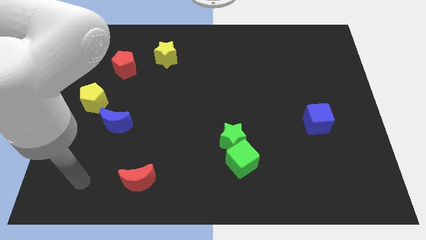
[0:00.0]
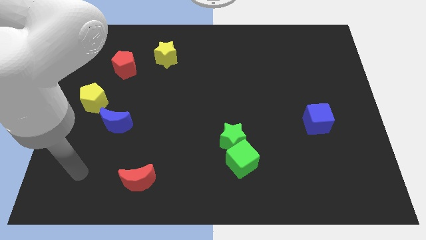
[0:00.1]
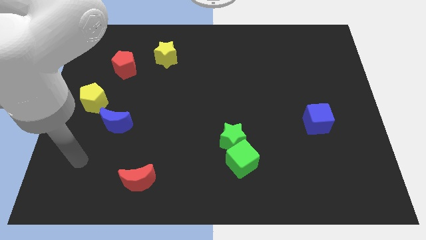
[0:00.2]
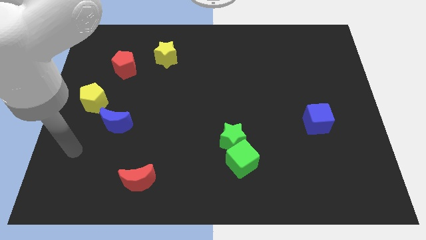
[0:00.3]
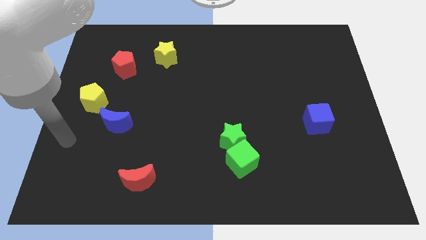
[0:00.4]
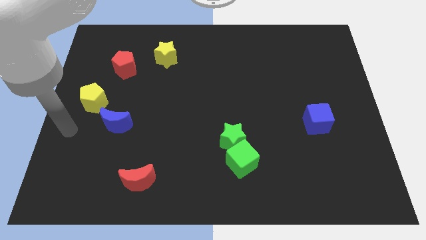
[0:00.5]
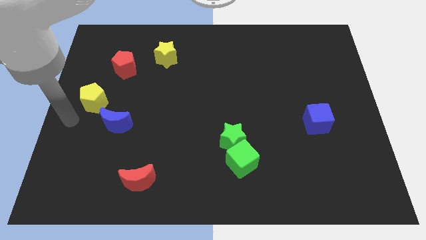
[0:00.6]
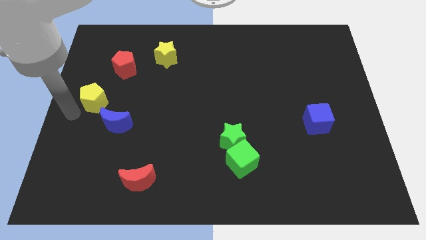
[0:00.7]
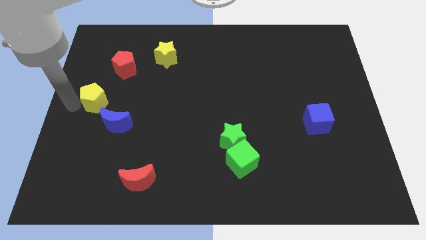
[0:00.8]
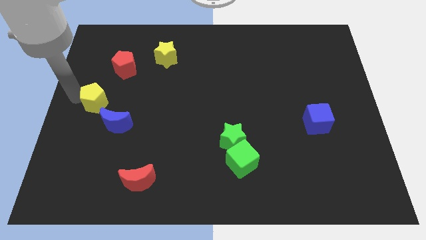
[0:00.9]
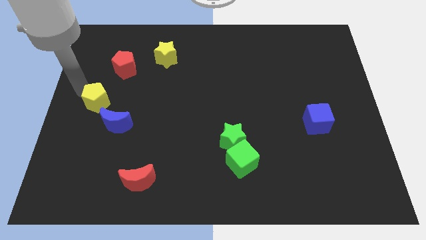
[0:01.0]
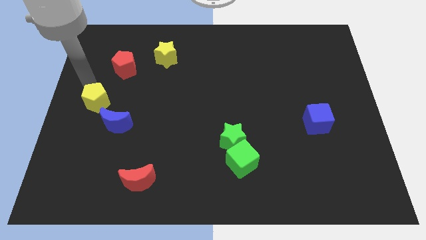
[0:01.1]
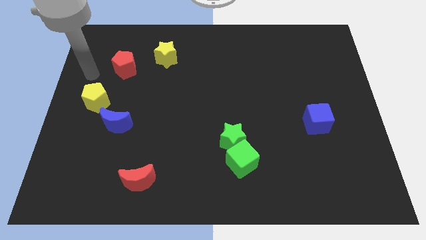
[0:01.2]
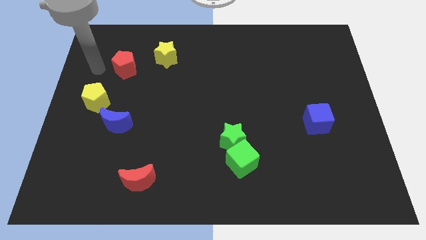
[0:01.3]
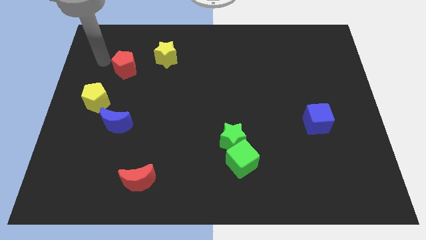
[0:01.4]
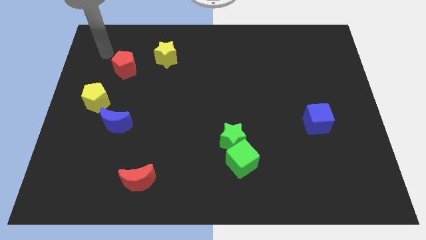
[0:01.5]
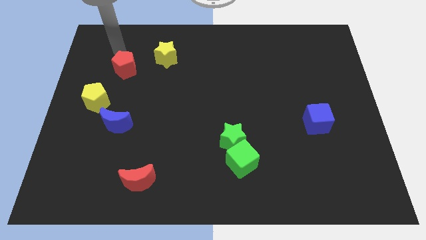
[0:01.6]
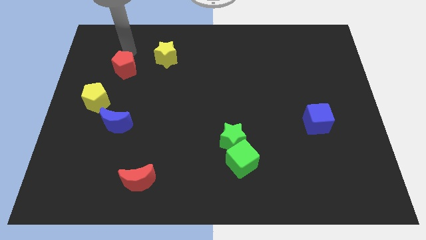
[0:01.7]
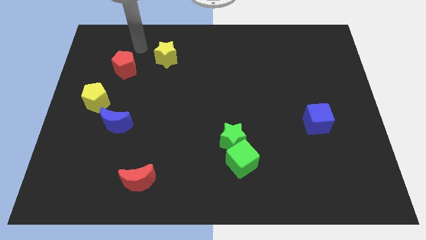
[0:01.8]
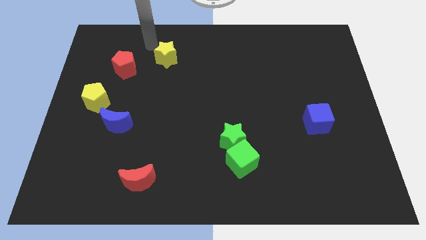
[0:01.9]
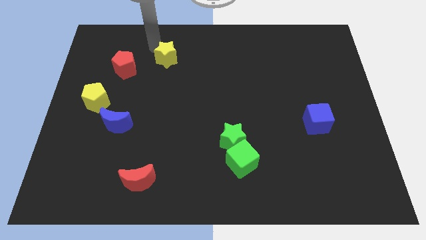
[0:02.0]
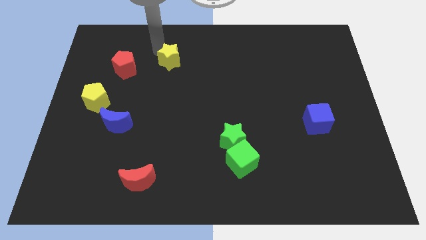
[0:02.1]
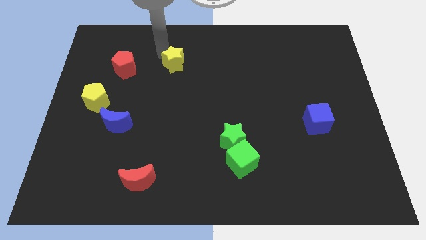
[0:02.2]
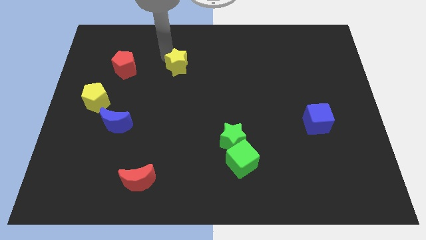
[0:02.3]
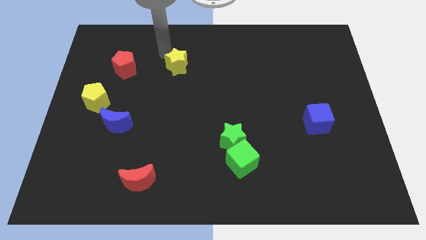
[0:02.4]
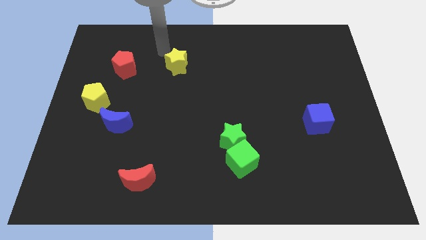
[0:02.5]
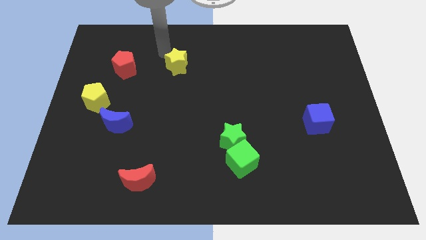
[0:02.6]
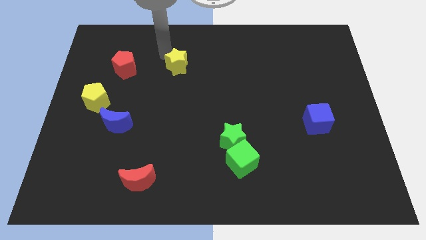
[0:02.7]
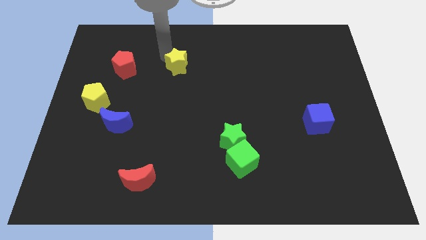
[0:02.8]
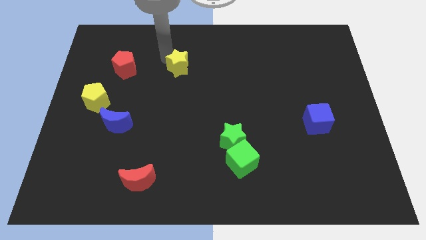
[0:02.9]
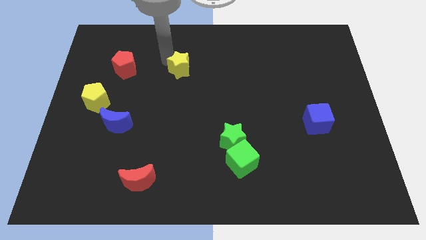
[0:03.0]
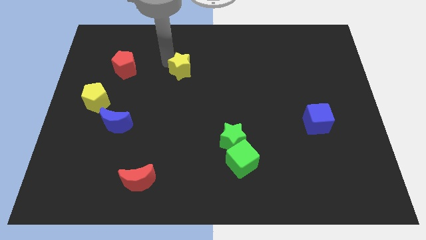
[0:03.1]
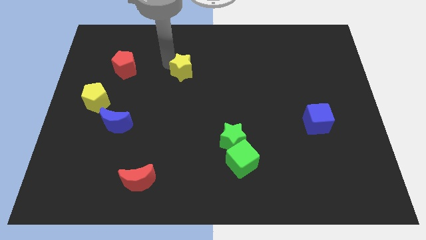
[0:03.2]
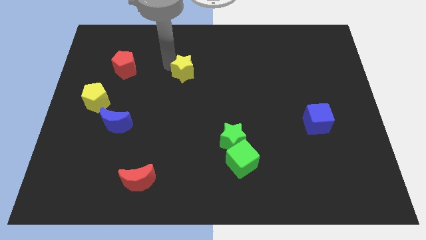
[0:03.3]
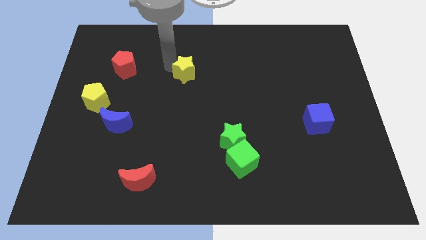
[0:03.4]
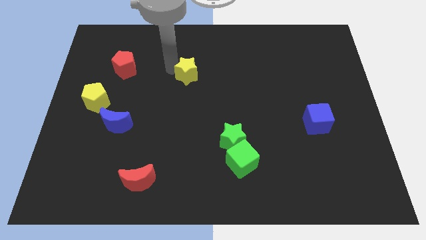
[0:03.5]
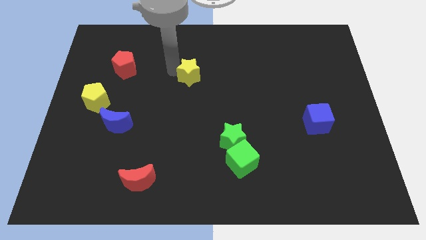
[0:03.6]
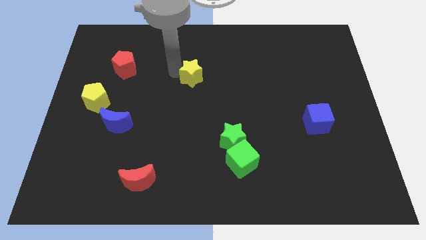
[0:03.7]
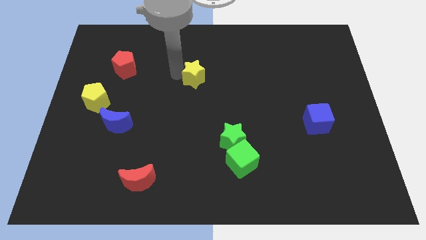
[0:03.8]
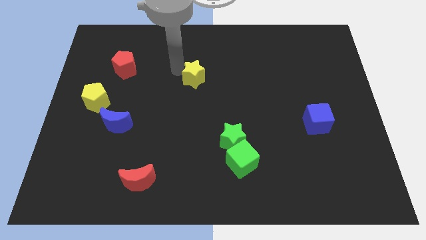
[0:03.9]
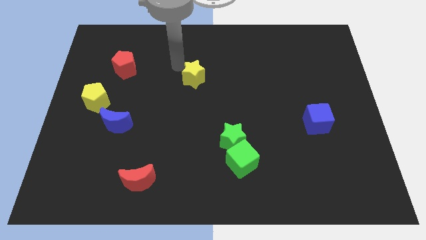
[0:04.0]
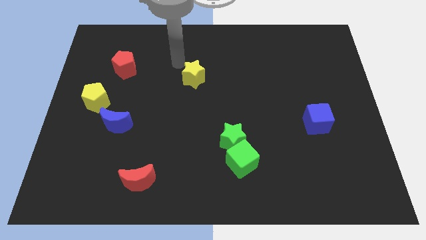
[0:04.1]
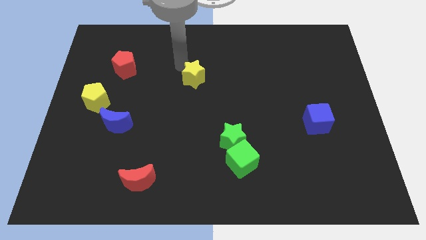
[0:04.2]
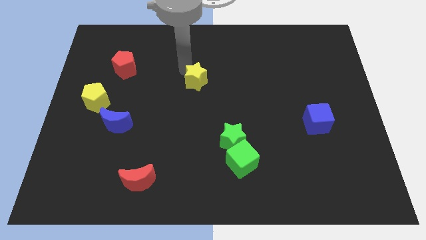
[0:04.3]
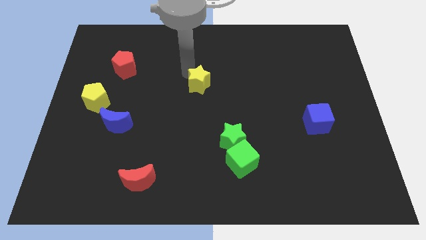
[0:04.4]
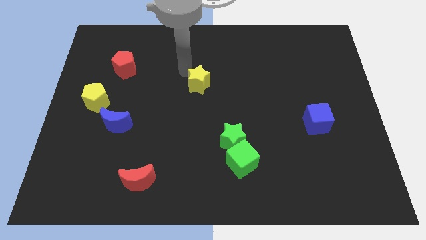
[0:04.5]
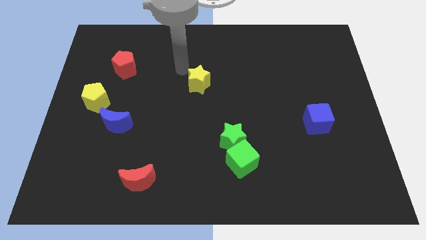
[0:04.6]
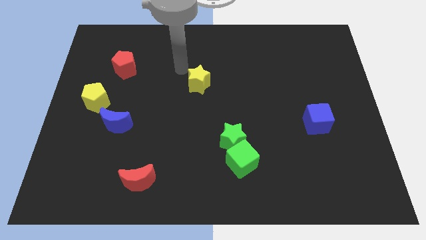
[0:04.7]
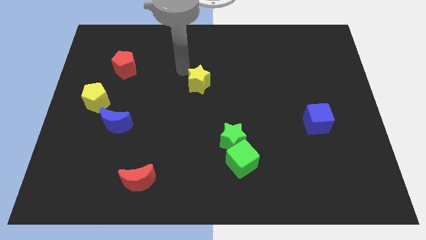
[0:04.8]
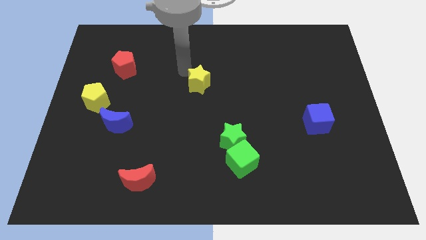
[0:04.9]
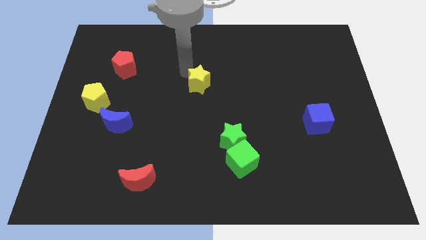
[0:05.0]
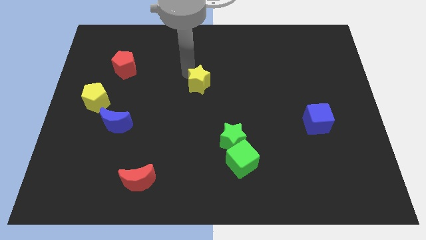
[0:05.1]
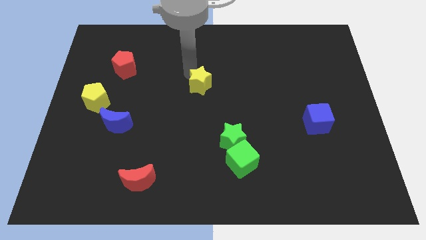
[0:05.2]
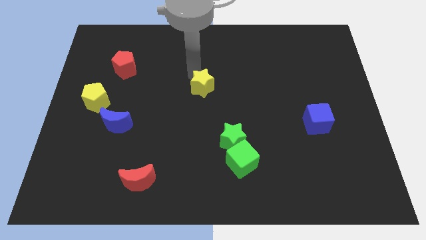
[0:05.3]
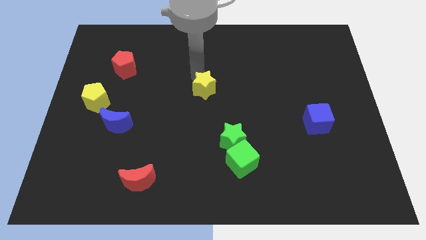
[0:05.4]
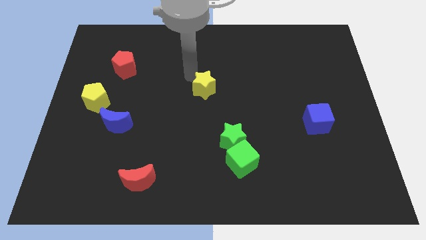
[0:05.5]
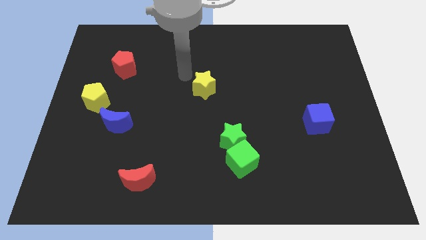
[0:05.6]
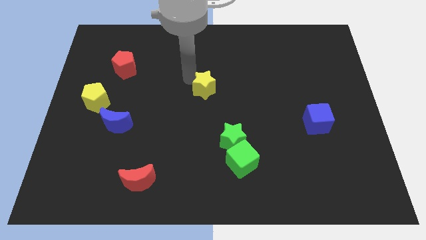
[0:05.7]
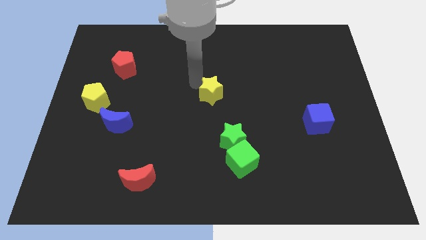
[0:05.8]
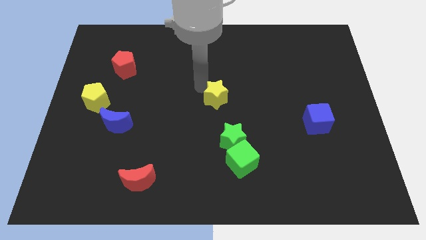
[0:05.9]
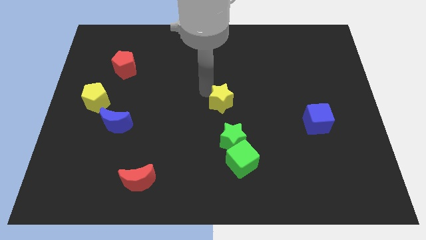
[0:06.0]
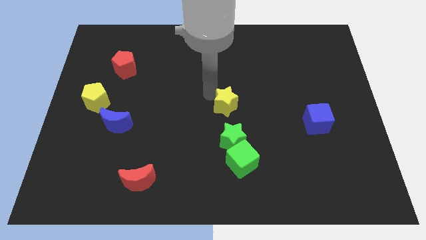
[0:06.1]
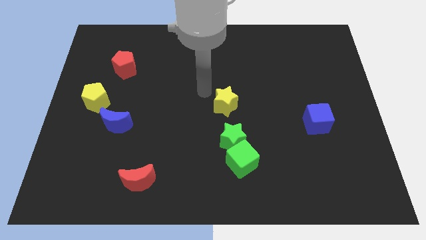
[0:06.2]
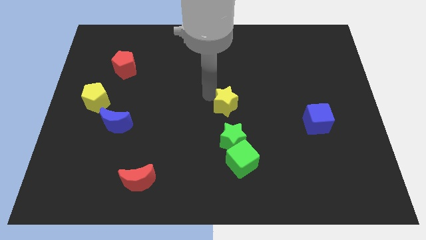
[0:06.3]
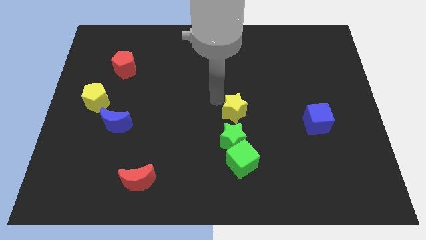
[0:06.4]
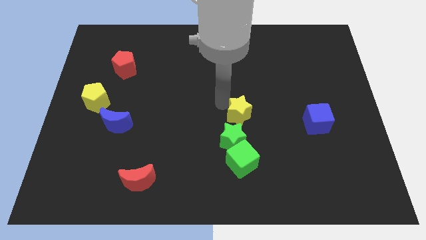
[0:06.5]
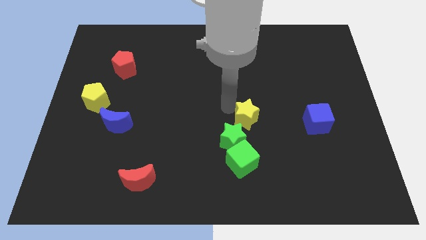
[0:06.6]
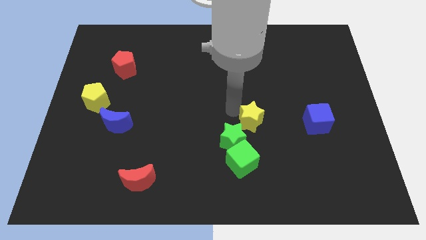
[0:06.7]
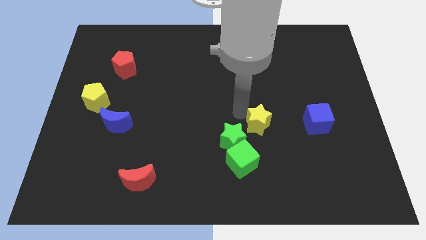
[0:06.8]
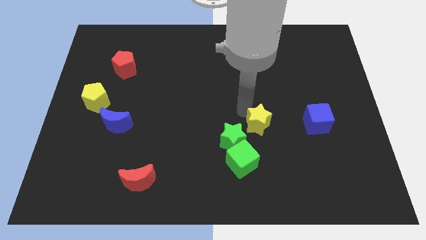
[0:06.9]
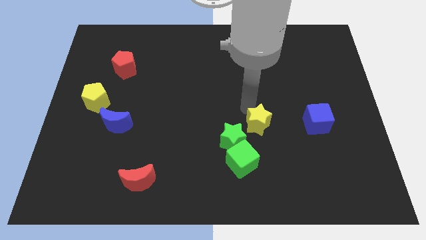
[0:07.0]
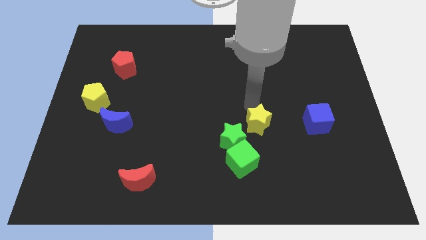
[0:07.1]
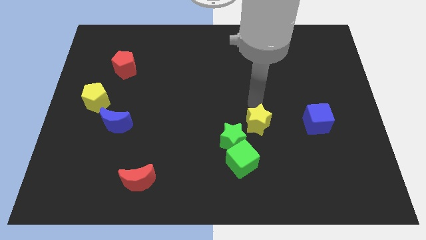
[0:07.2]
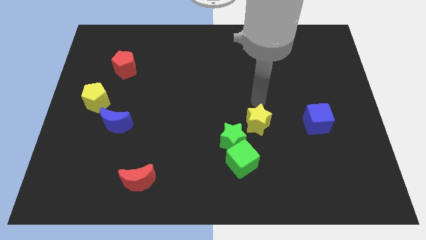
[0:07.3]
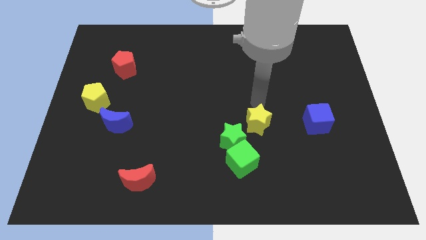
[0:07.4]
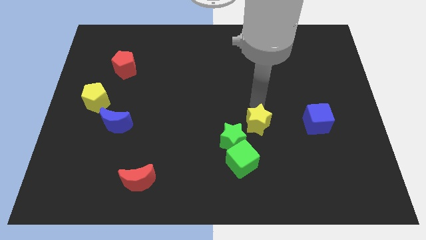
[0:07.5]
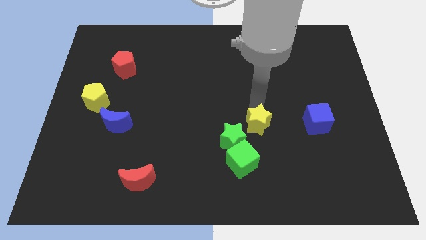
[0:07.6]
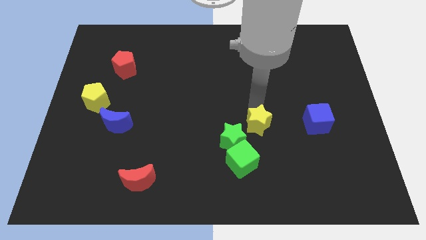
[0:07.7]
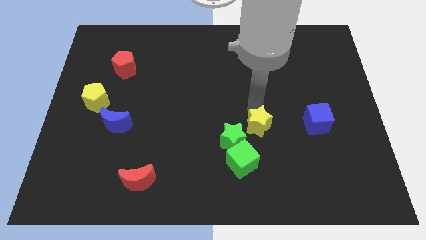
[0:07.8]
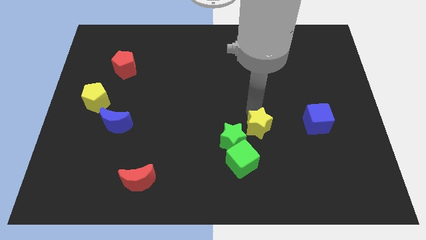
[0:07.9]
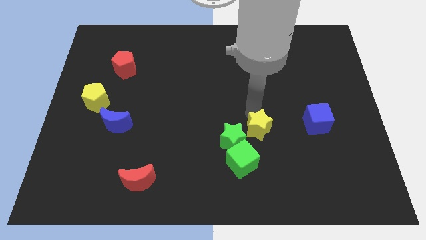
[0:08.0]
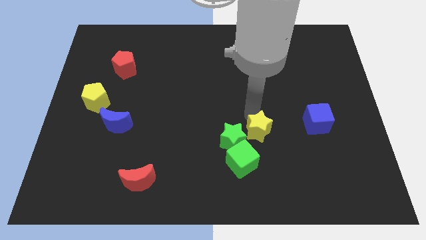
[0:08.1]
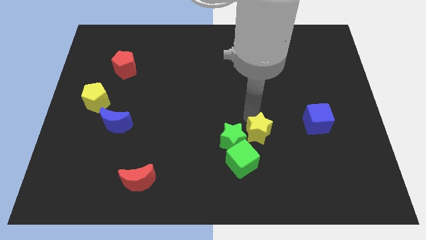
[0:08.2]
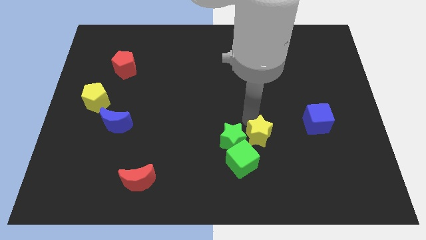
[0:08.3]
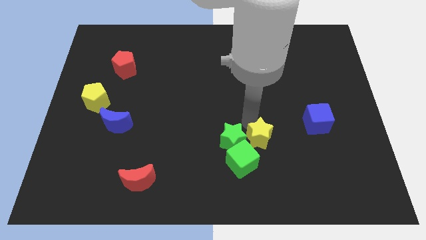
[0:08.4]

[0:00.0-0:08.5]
move the yellow star to the bottom right of the green star
